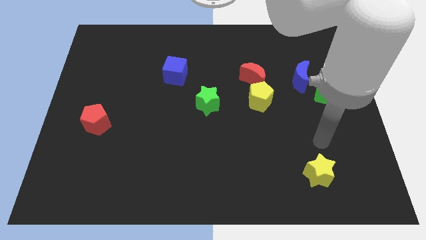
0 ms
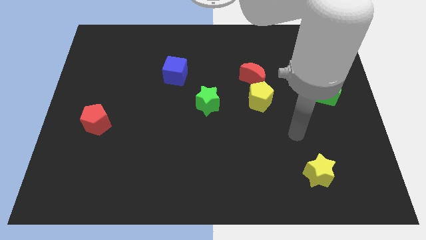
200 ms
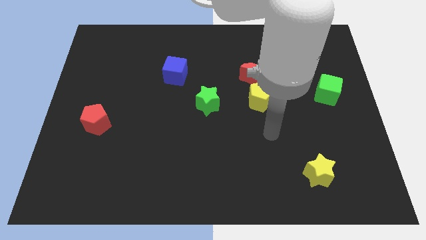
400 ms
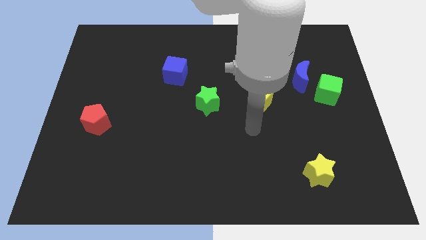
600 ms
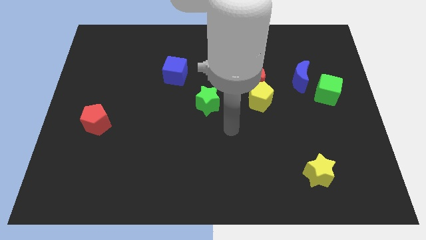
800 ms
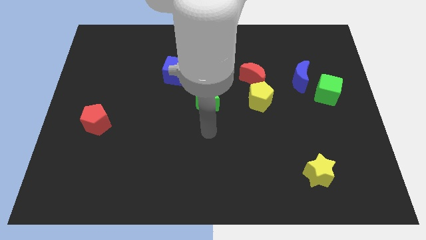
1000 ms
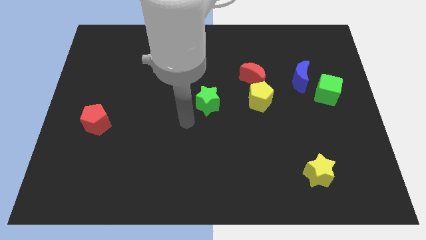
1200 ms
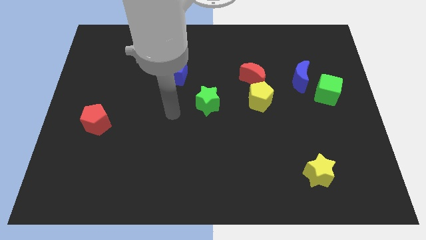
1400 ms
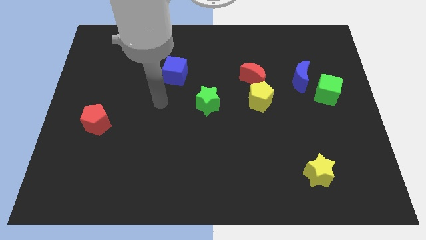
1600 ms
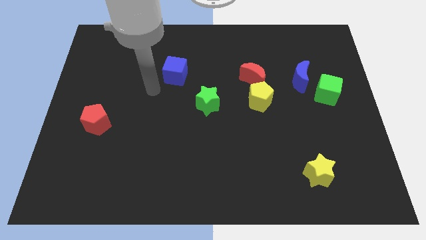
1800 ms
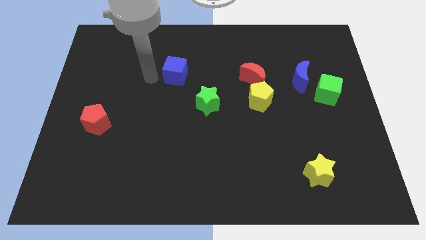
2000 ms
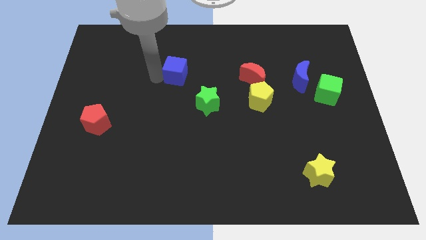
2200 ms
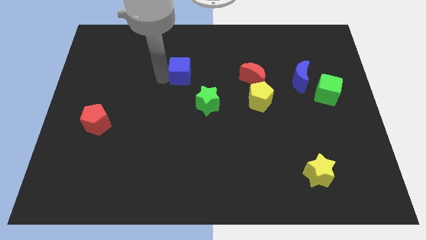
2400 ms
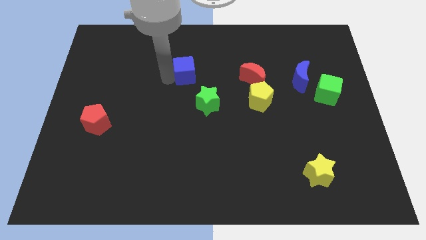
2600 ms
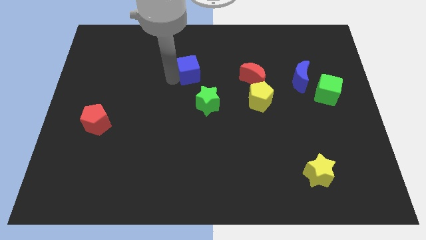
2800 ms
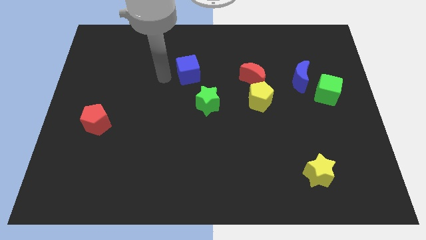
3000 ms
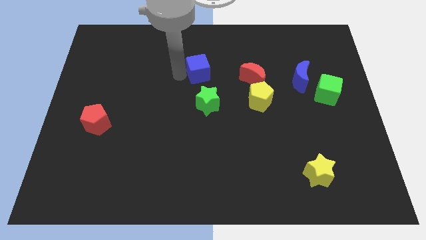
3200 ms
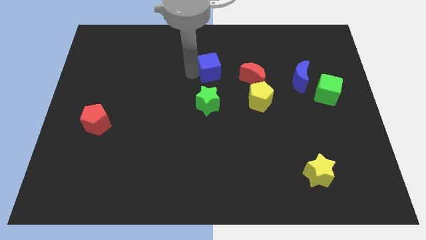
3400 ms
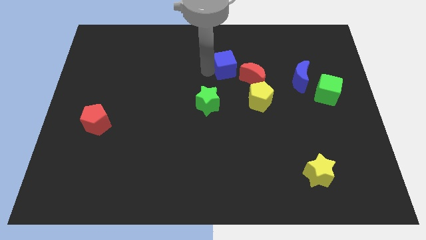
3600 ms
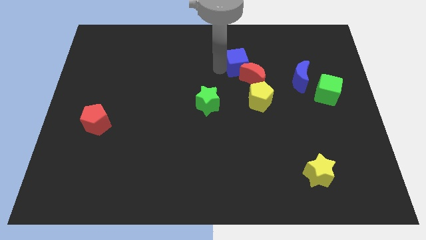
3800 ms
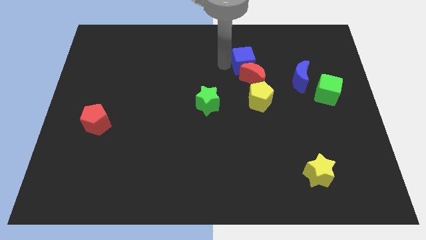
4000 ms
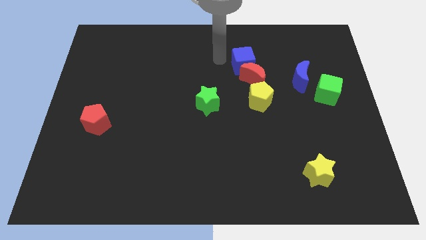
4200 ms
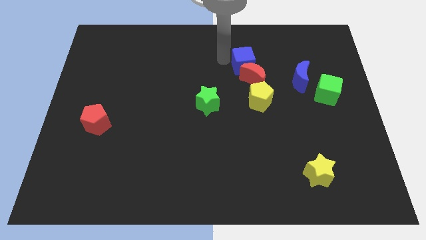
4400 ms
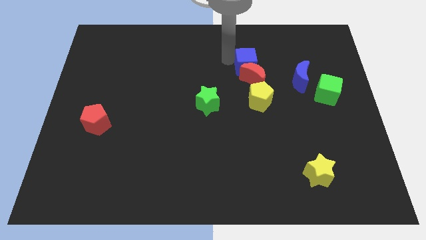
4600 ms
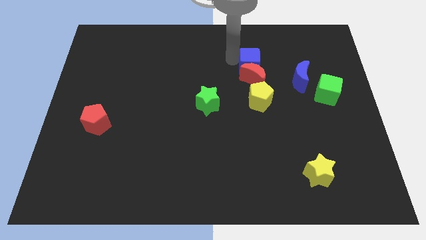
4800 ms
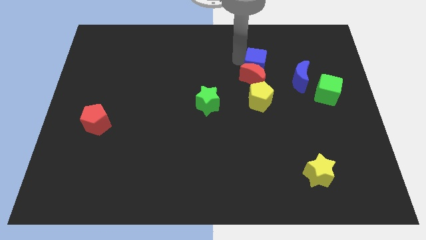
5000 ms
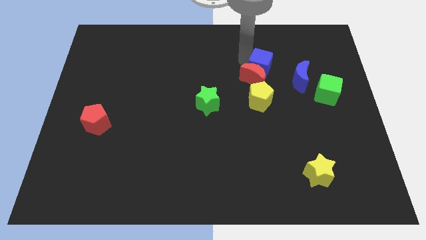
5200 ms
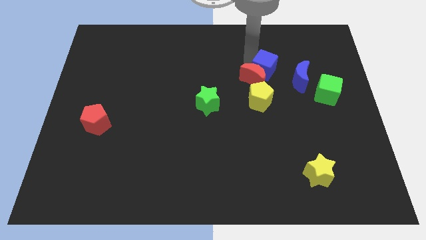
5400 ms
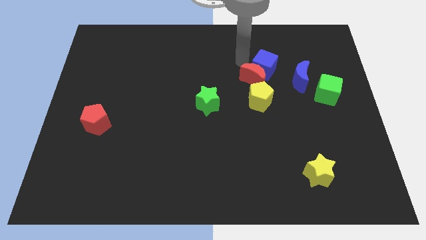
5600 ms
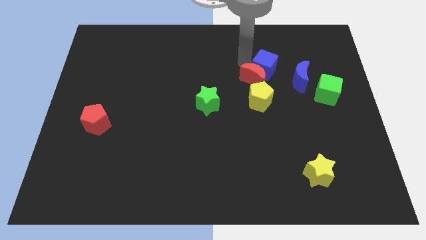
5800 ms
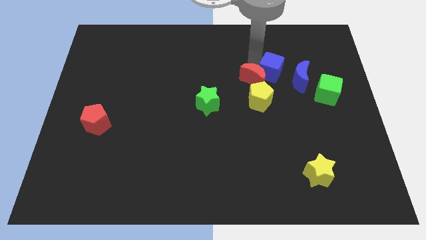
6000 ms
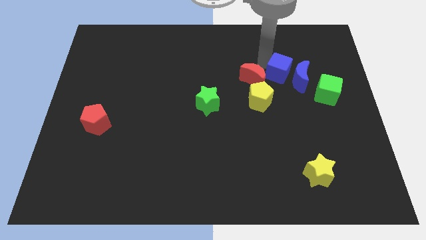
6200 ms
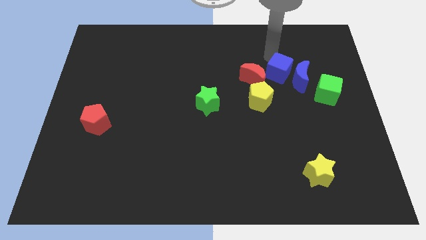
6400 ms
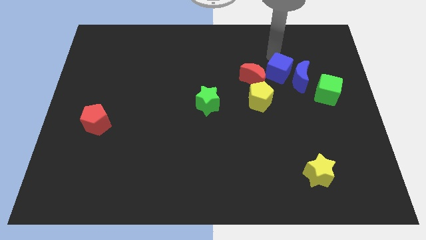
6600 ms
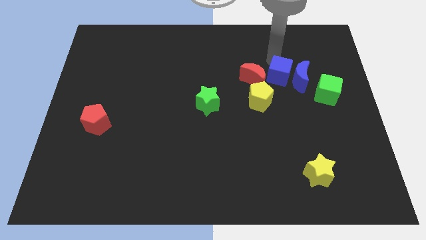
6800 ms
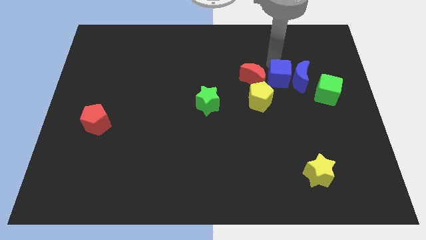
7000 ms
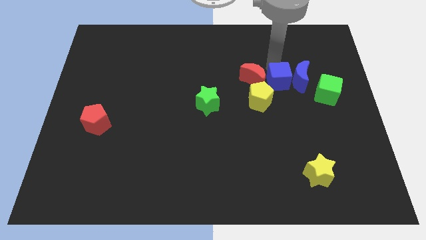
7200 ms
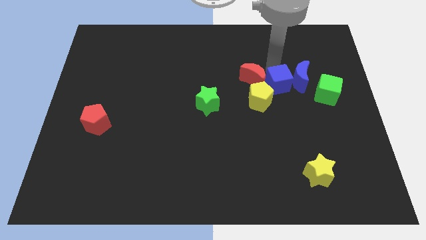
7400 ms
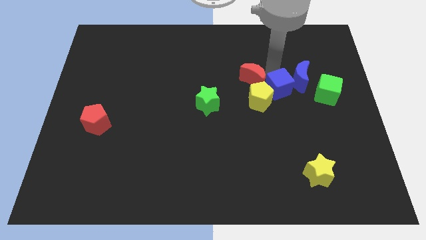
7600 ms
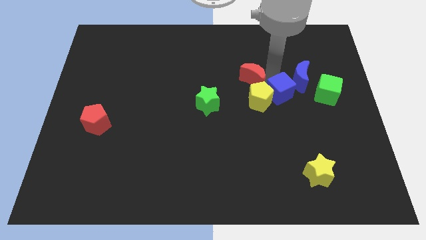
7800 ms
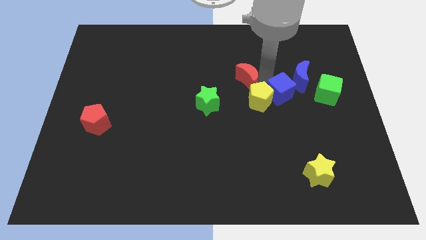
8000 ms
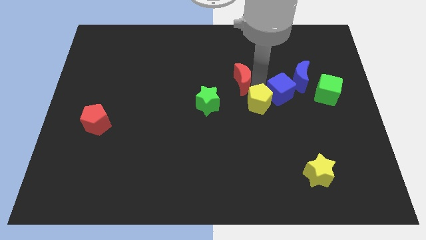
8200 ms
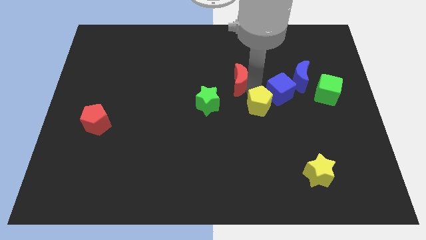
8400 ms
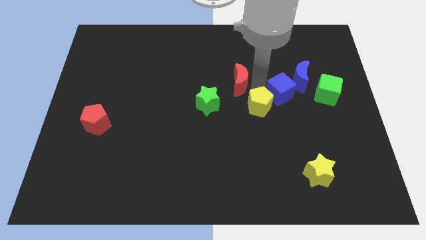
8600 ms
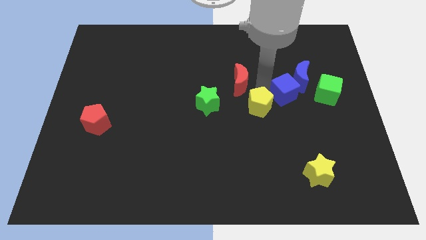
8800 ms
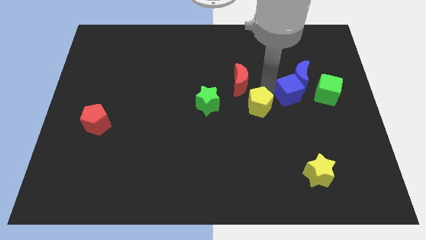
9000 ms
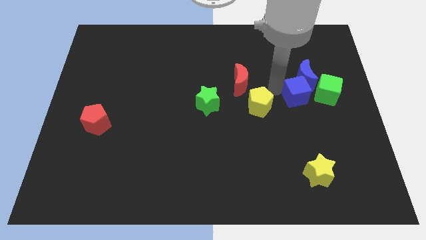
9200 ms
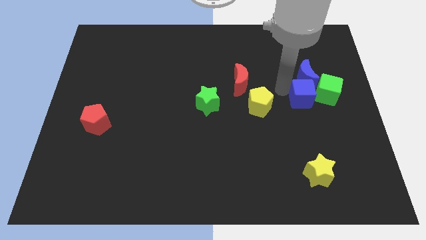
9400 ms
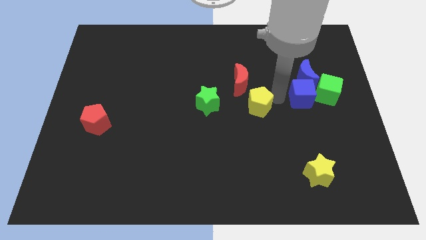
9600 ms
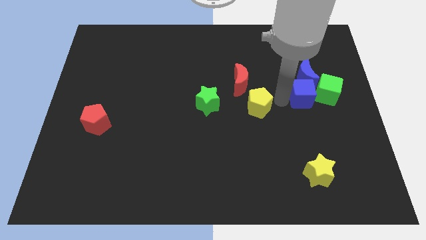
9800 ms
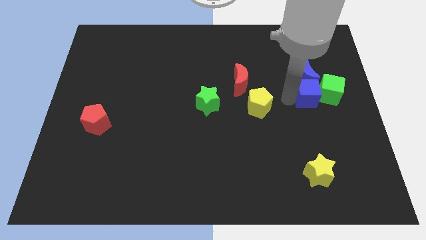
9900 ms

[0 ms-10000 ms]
push the blue cube towards the green cube

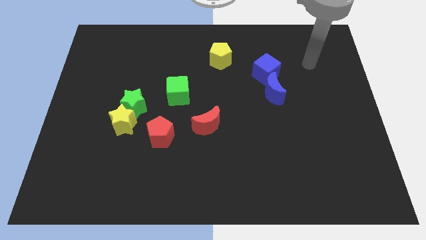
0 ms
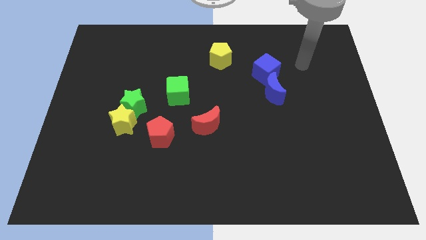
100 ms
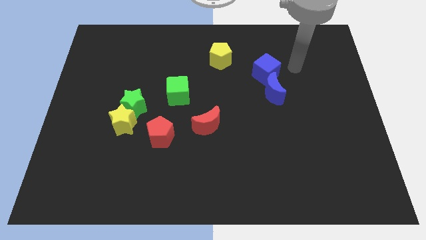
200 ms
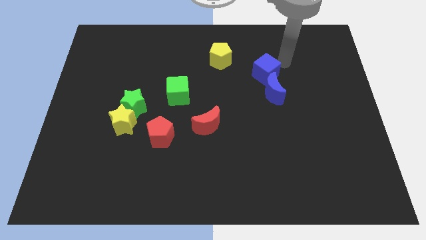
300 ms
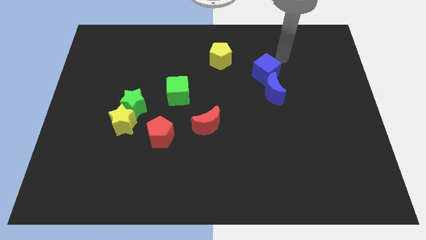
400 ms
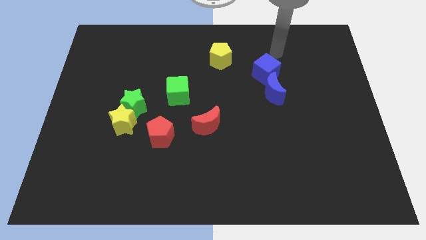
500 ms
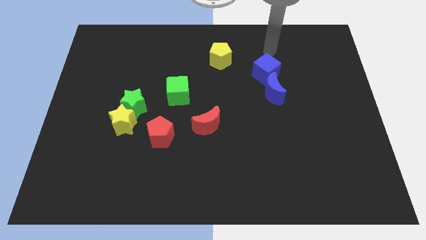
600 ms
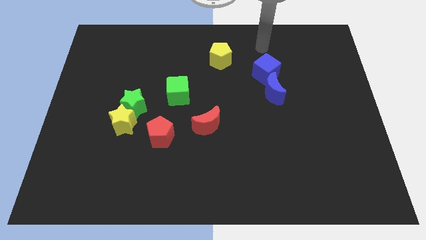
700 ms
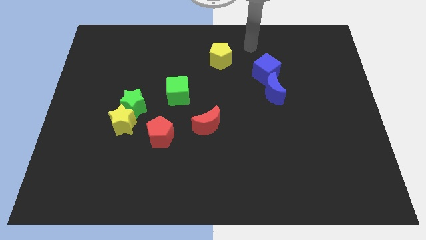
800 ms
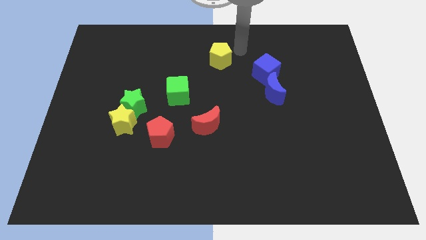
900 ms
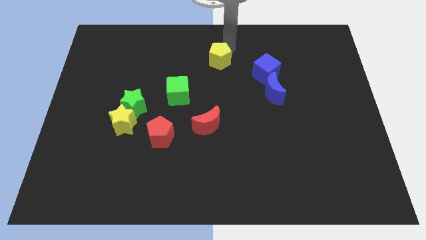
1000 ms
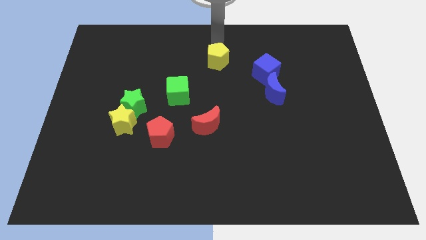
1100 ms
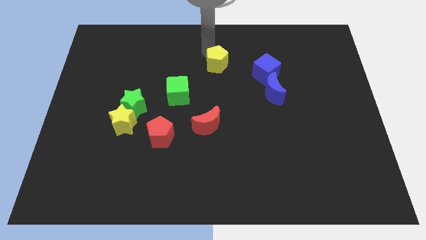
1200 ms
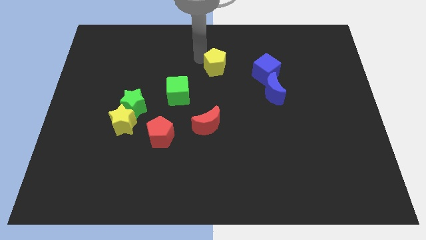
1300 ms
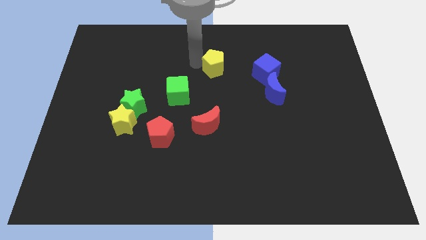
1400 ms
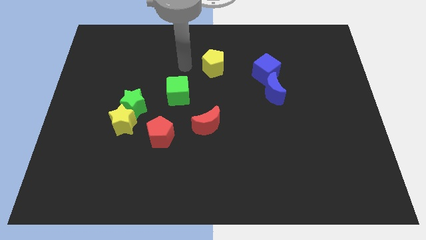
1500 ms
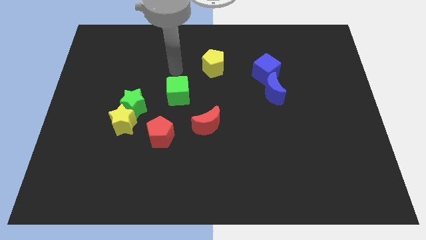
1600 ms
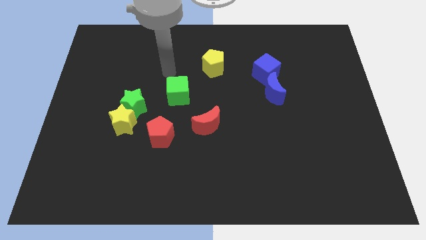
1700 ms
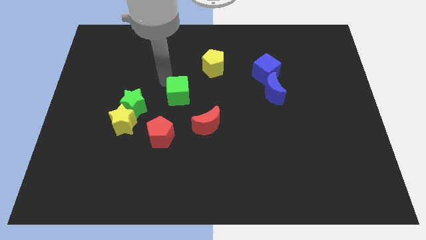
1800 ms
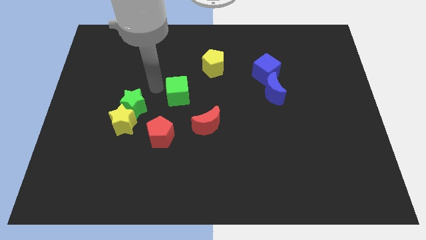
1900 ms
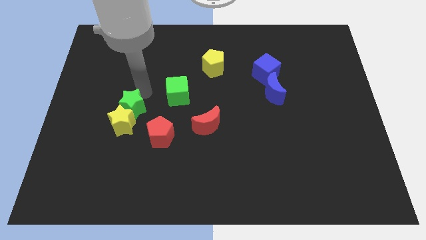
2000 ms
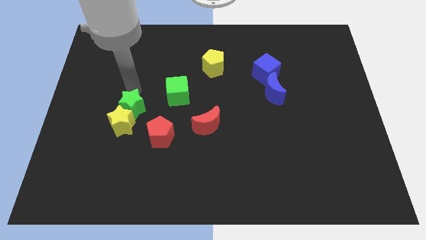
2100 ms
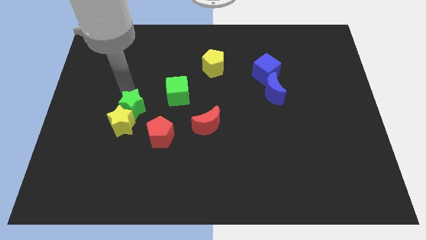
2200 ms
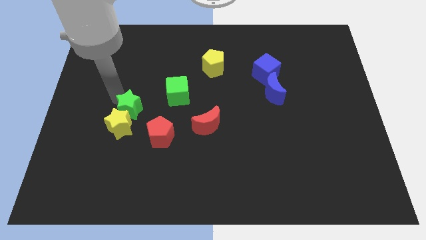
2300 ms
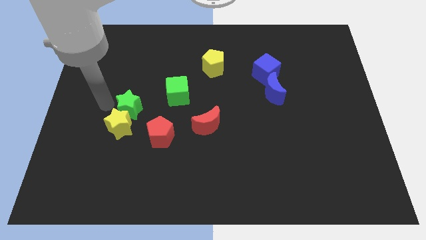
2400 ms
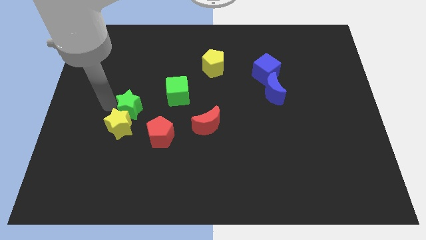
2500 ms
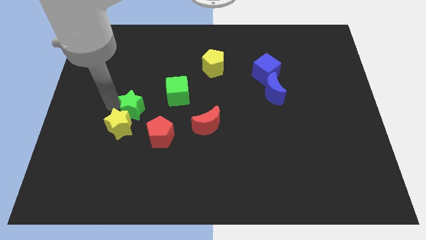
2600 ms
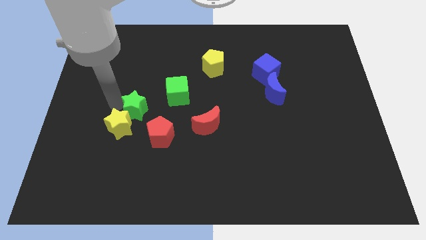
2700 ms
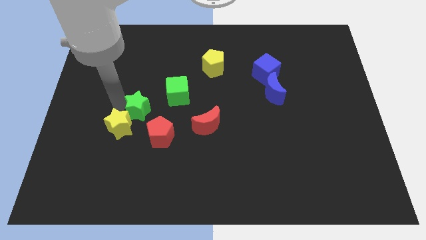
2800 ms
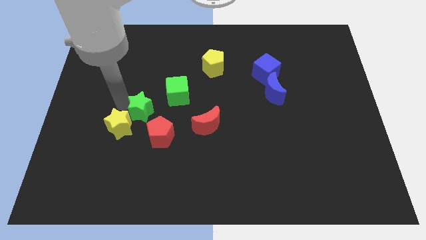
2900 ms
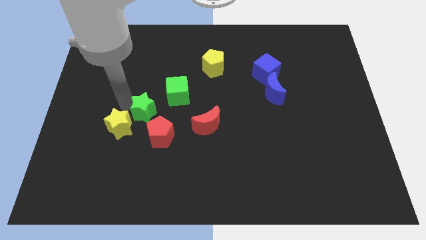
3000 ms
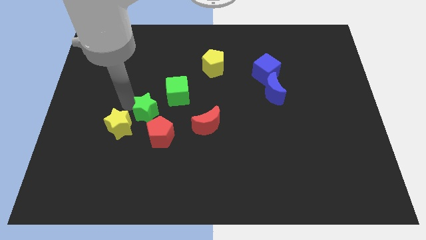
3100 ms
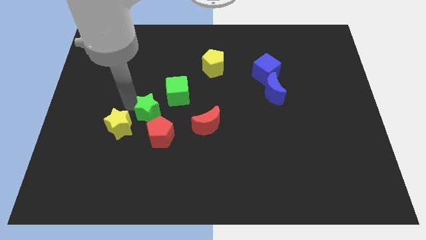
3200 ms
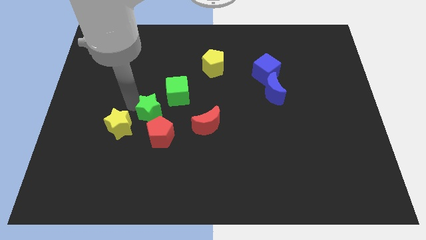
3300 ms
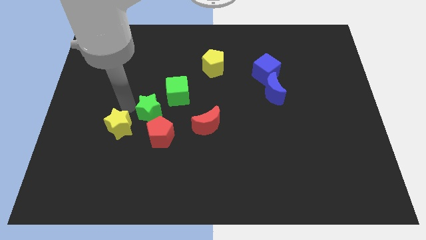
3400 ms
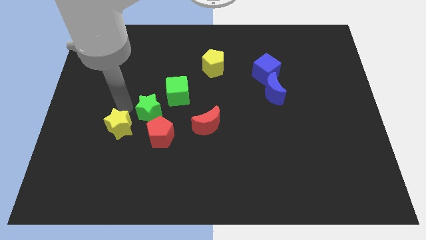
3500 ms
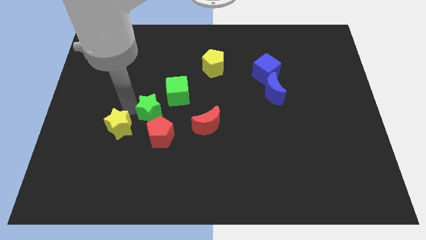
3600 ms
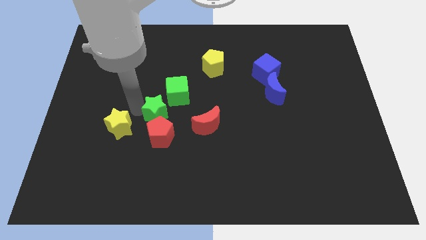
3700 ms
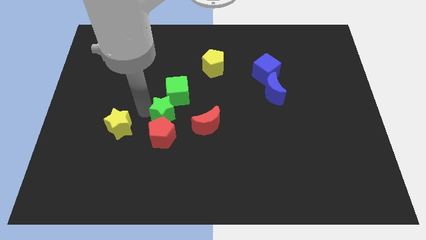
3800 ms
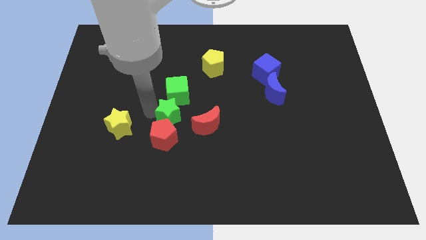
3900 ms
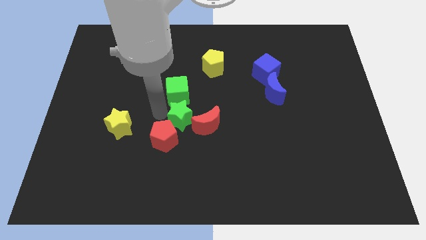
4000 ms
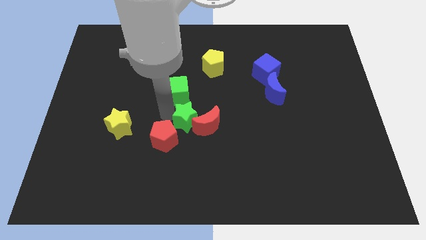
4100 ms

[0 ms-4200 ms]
push the green star next to the red moon
